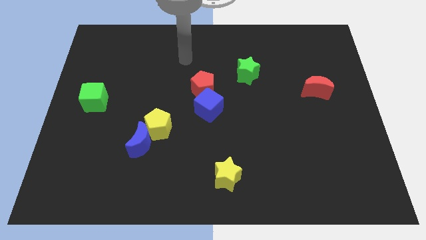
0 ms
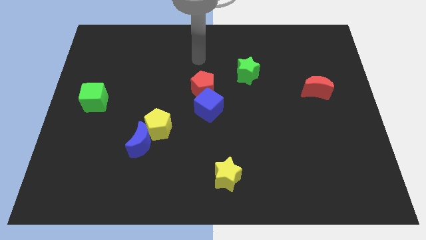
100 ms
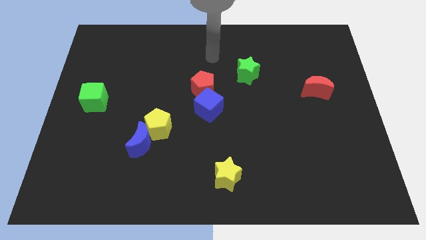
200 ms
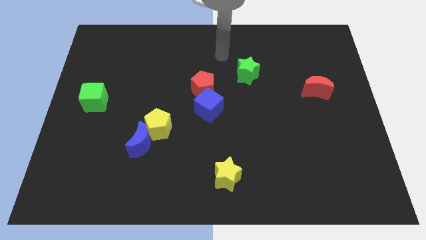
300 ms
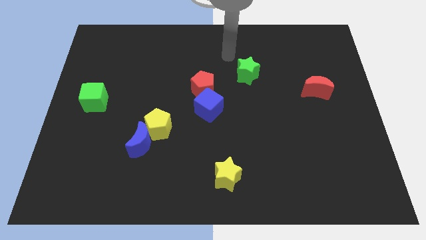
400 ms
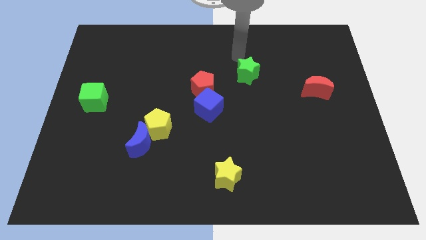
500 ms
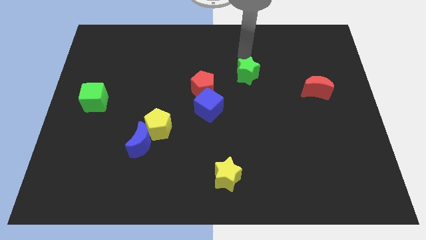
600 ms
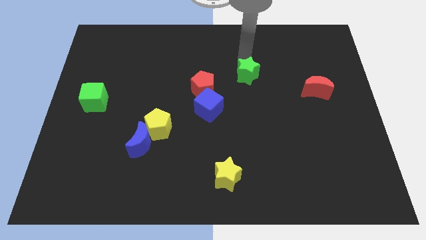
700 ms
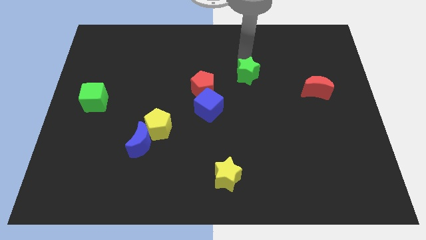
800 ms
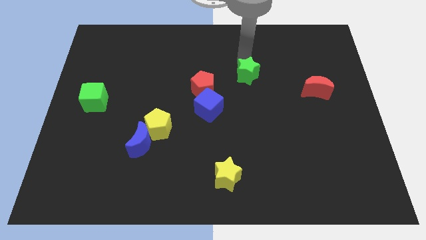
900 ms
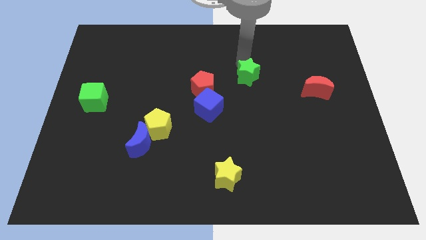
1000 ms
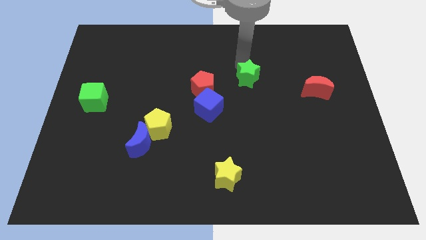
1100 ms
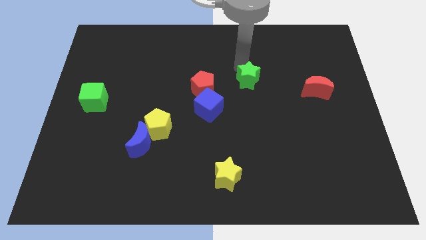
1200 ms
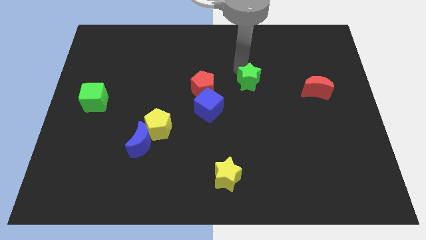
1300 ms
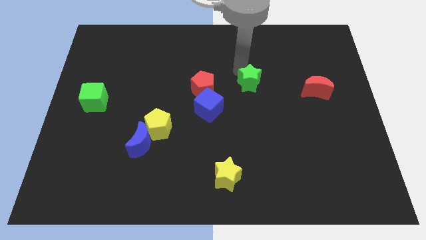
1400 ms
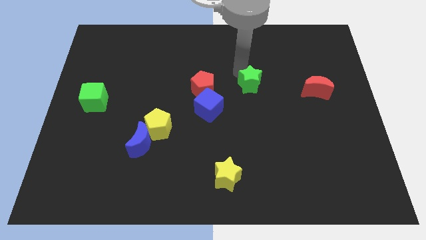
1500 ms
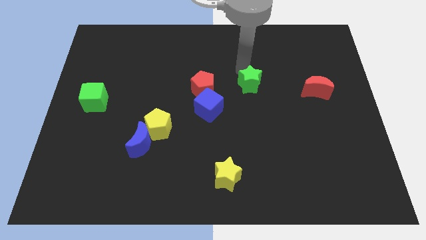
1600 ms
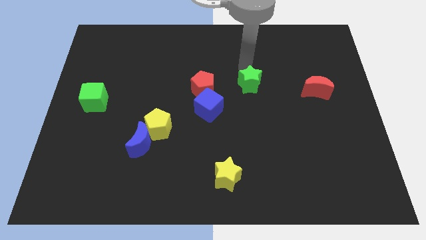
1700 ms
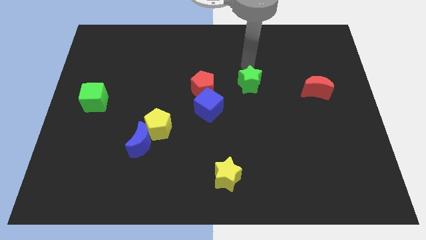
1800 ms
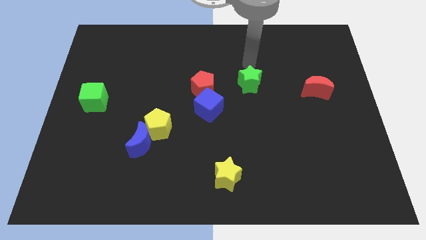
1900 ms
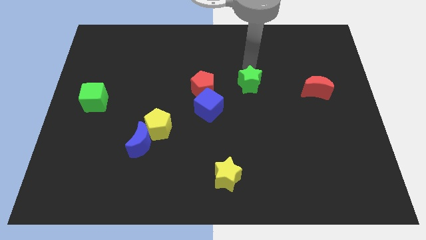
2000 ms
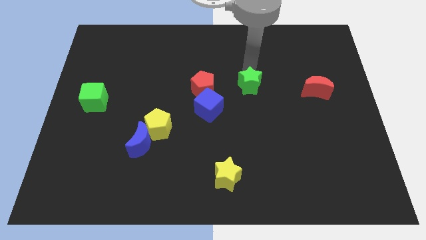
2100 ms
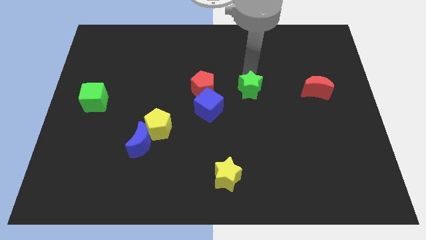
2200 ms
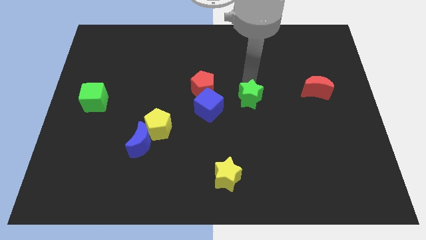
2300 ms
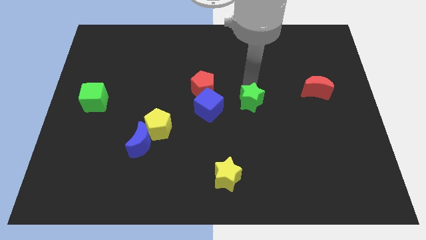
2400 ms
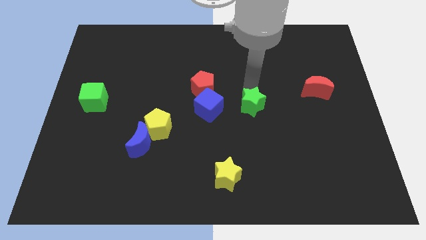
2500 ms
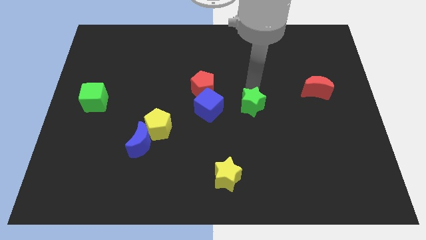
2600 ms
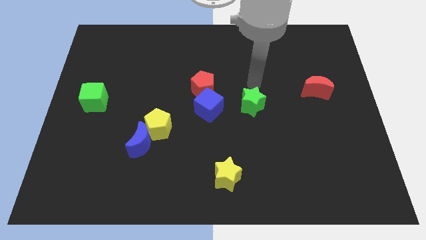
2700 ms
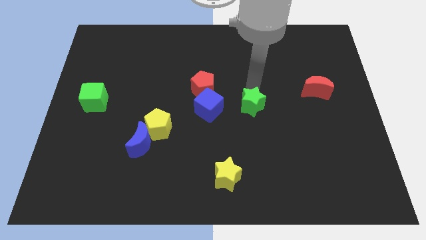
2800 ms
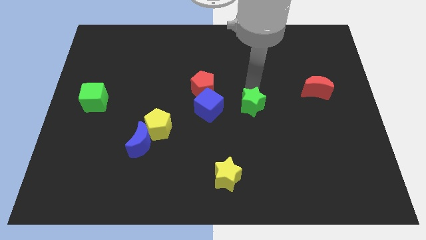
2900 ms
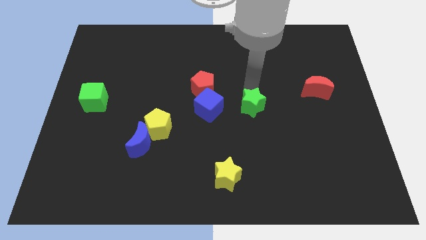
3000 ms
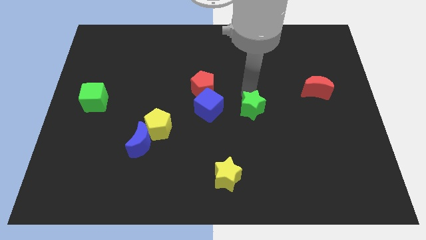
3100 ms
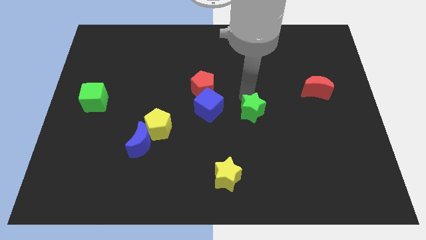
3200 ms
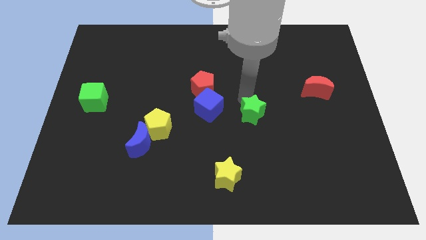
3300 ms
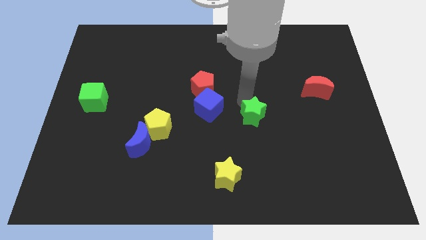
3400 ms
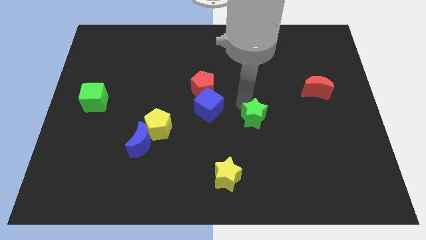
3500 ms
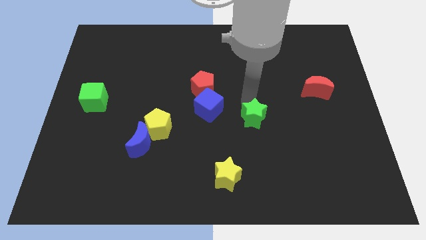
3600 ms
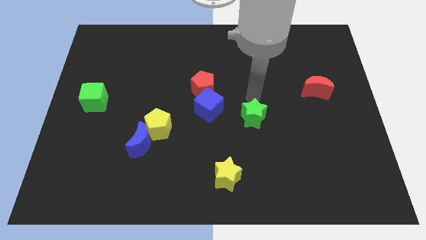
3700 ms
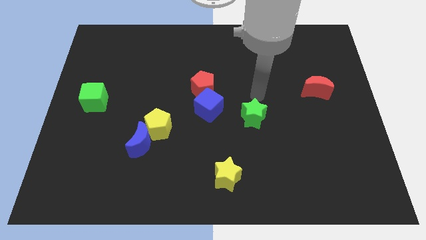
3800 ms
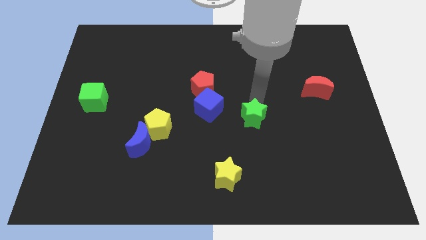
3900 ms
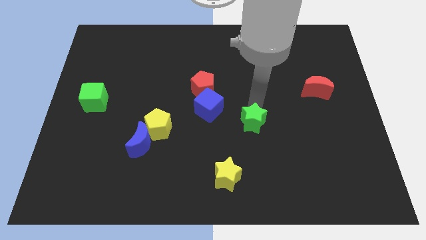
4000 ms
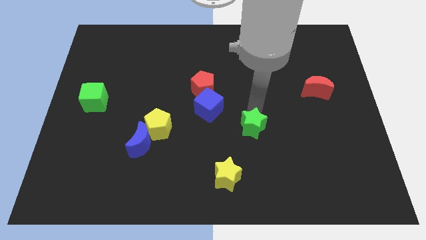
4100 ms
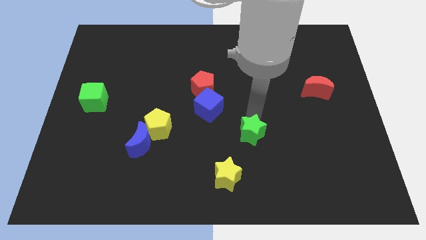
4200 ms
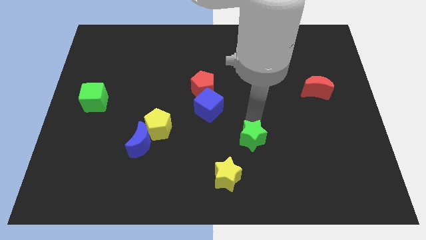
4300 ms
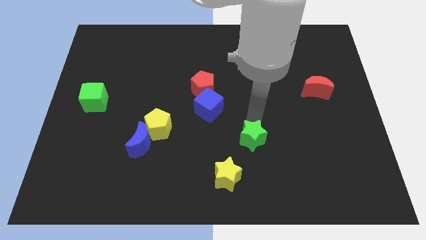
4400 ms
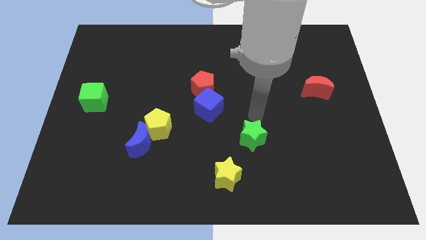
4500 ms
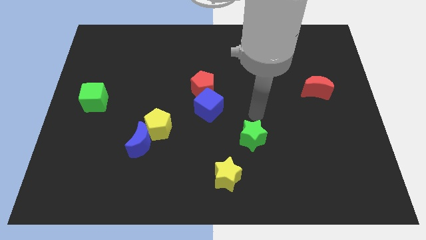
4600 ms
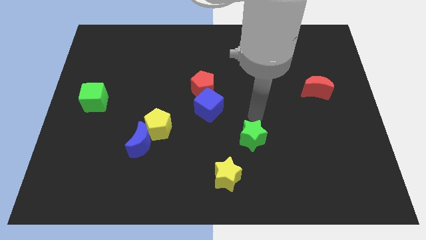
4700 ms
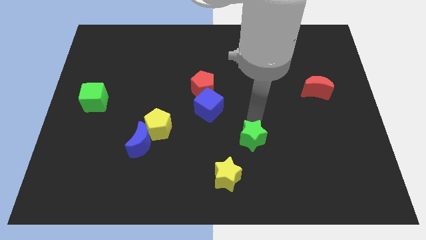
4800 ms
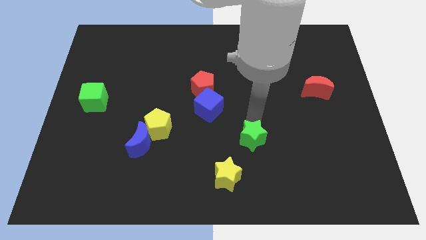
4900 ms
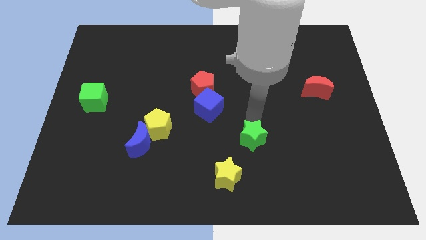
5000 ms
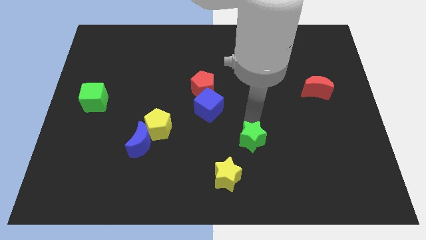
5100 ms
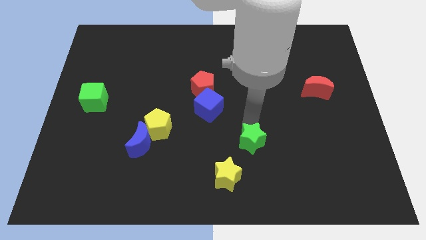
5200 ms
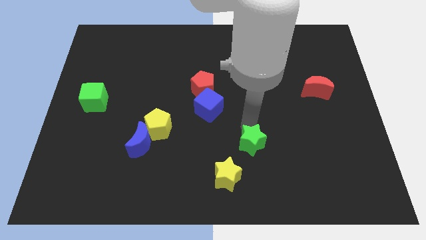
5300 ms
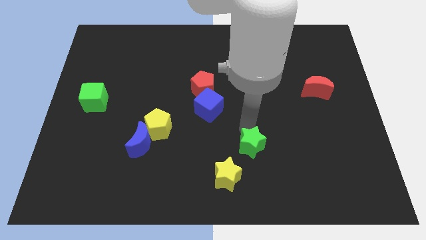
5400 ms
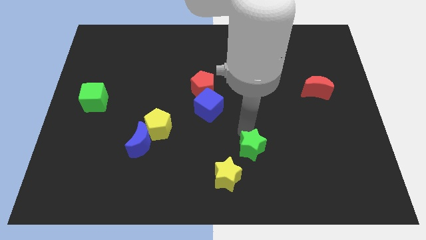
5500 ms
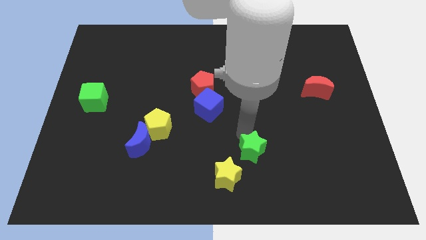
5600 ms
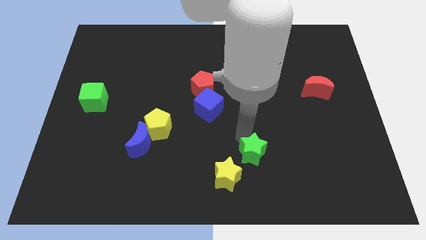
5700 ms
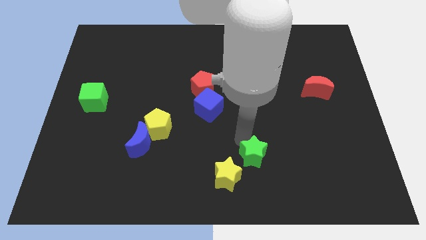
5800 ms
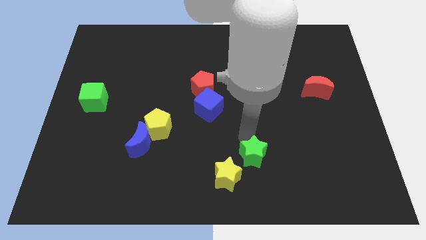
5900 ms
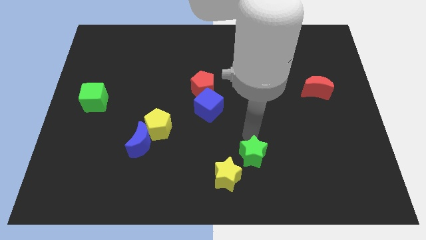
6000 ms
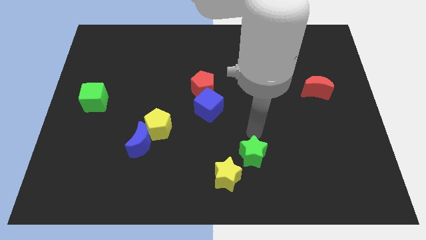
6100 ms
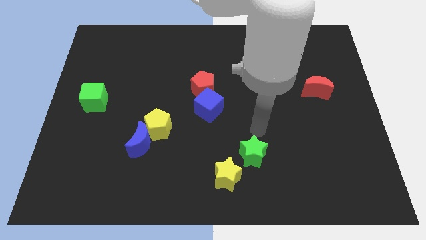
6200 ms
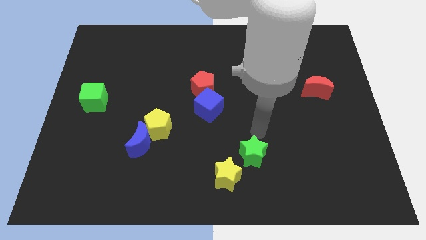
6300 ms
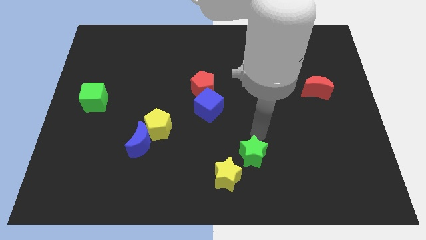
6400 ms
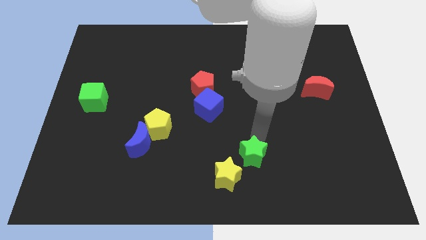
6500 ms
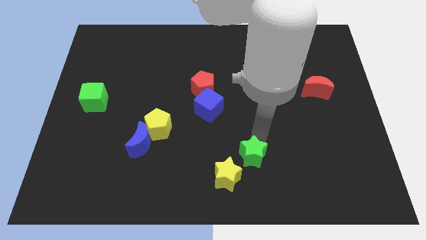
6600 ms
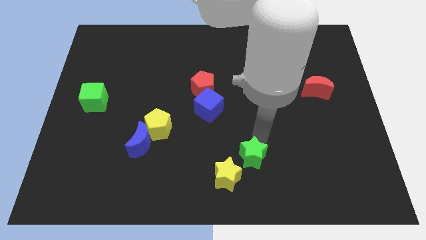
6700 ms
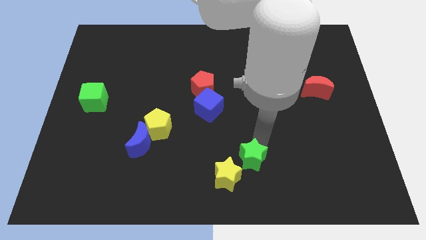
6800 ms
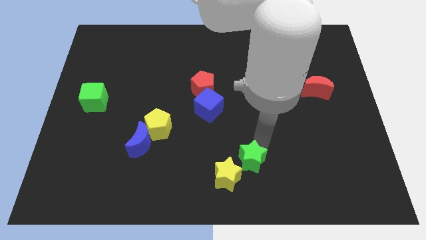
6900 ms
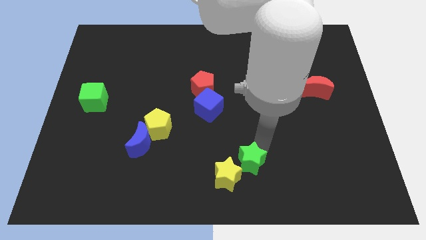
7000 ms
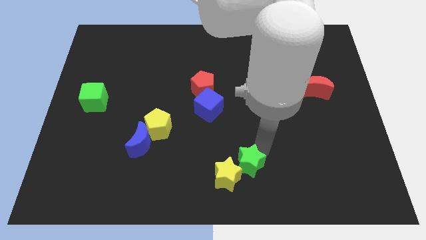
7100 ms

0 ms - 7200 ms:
put the green star to the bottom
